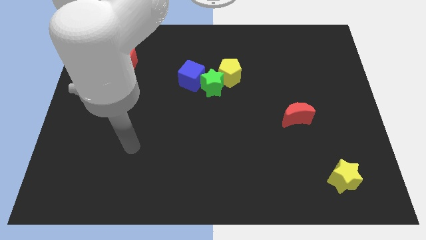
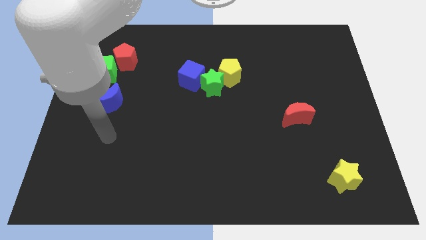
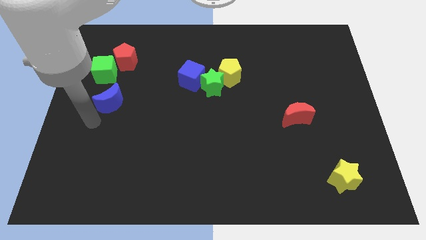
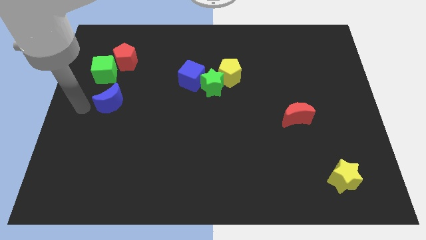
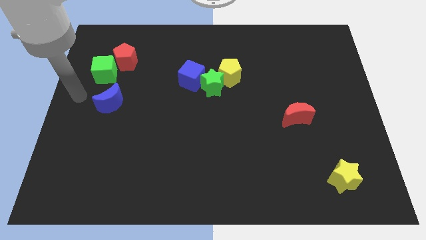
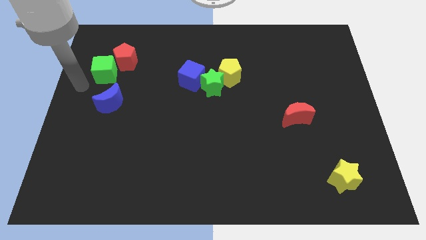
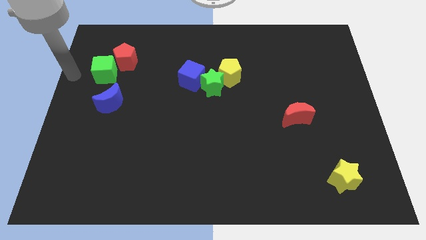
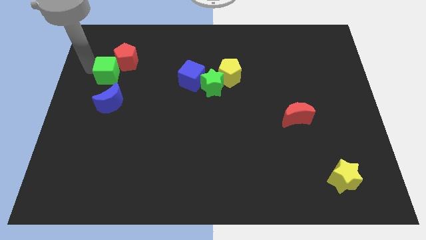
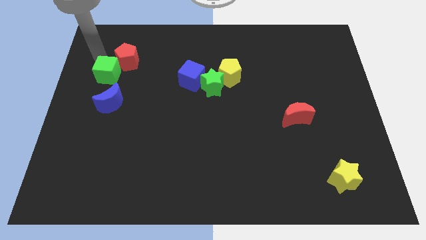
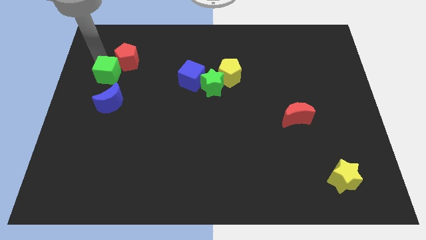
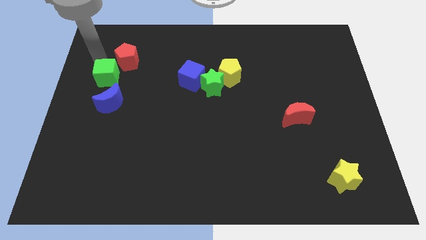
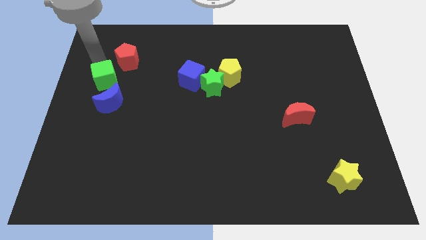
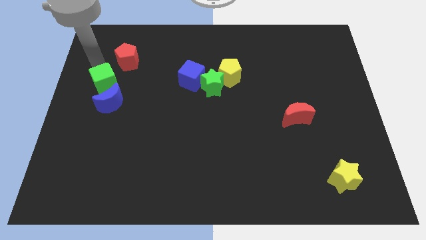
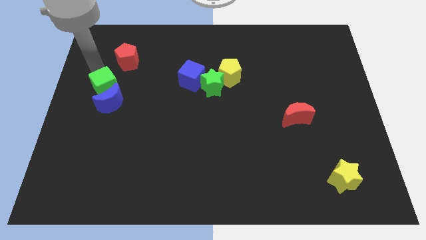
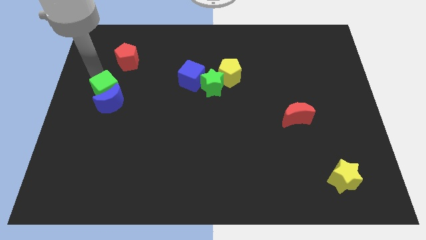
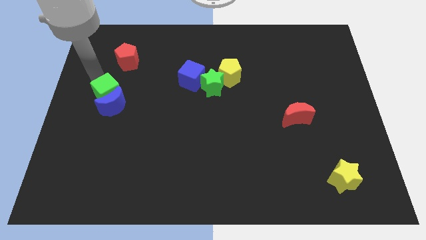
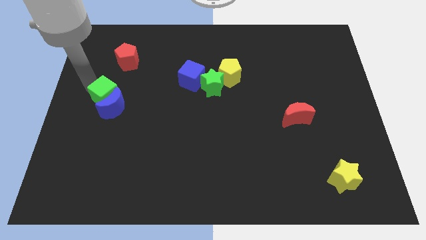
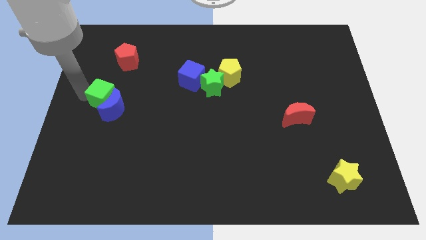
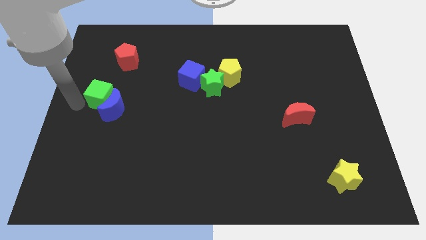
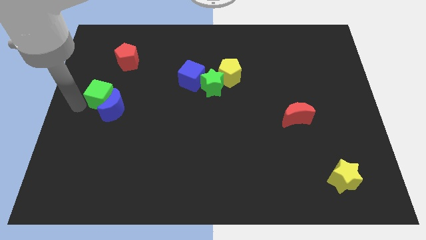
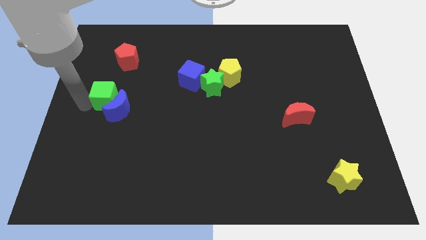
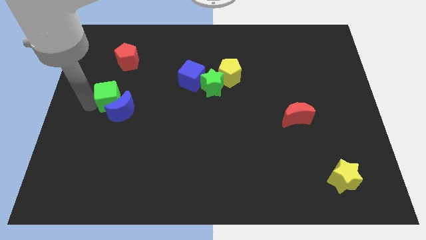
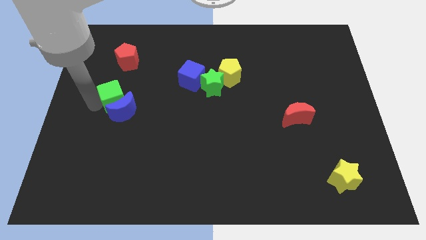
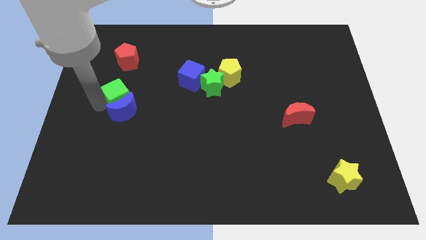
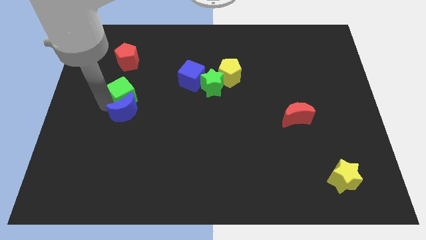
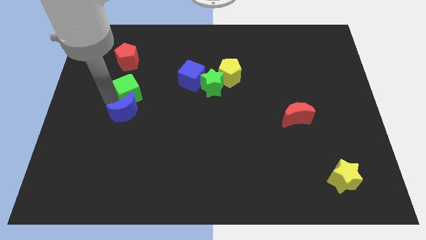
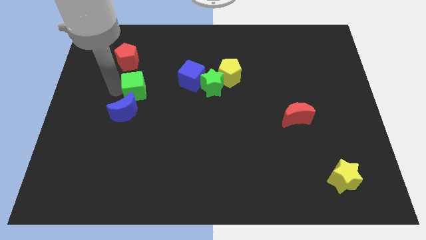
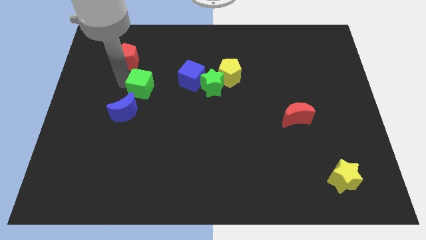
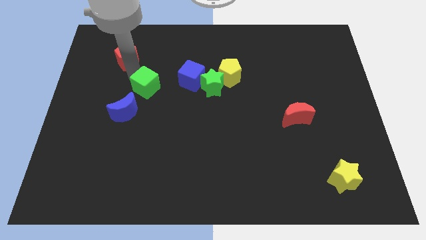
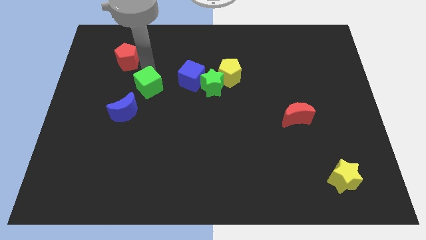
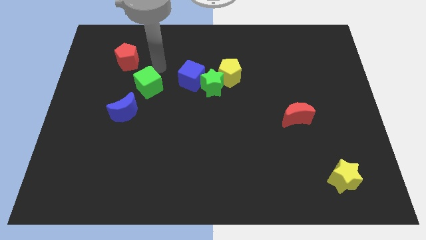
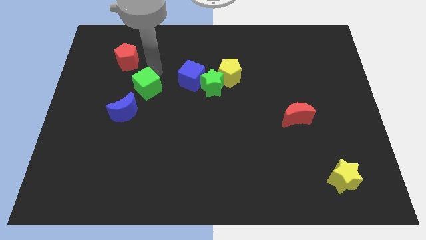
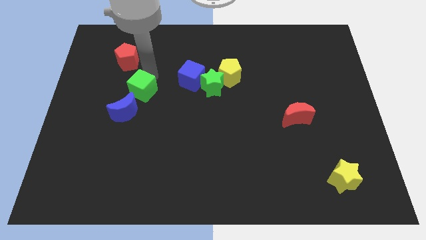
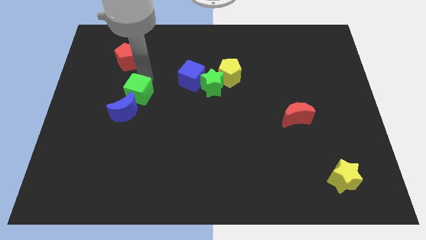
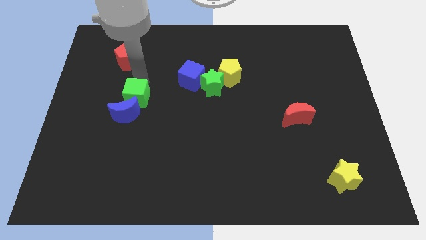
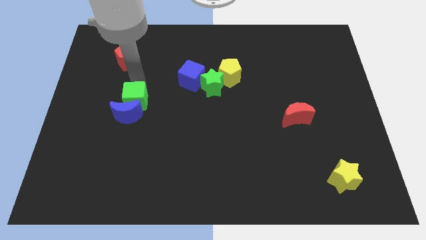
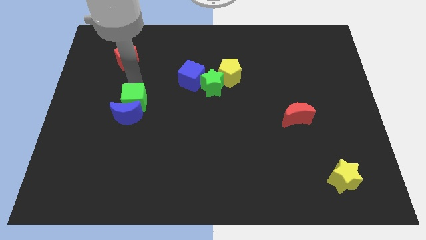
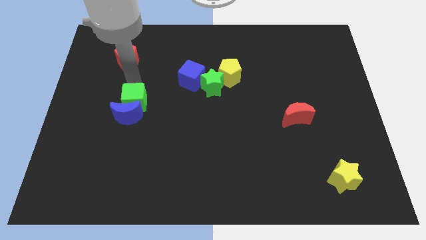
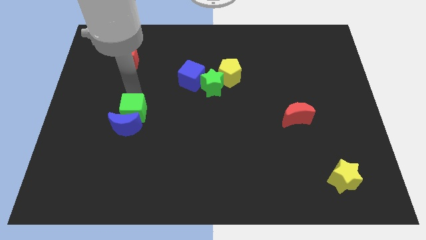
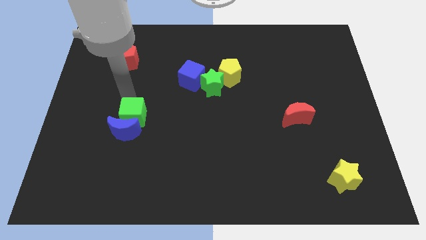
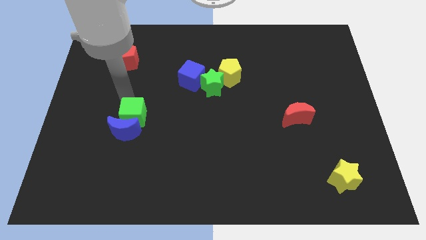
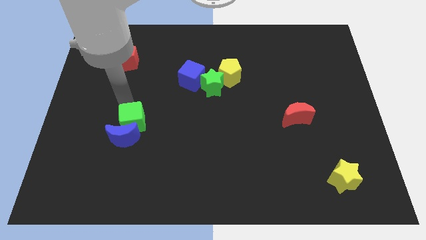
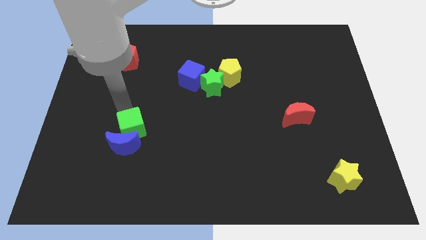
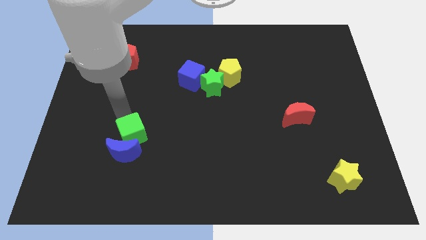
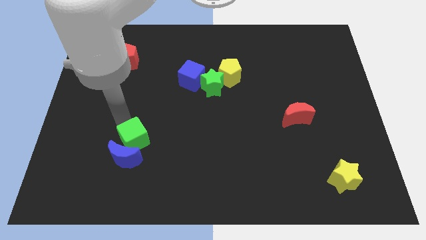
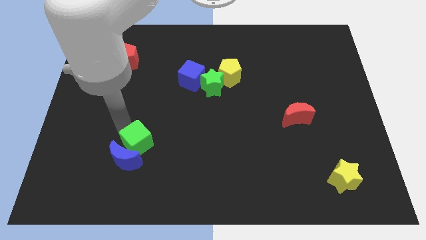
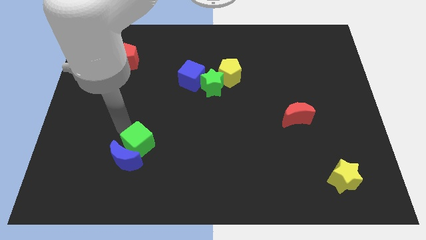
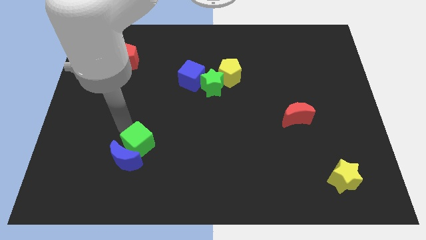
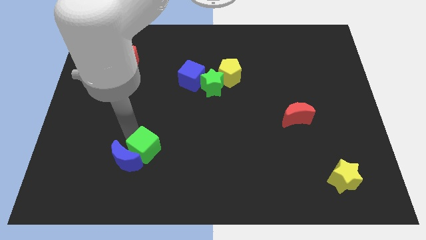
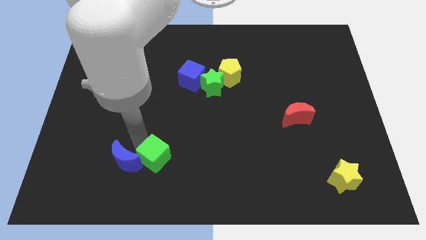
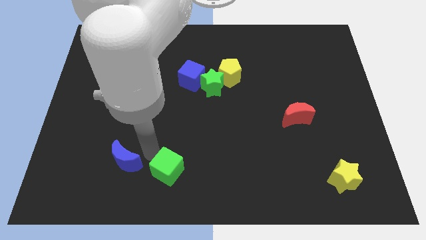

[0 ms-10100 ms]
slide the green cube to the bottom side
